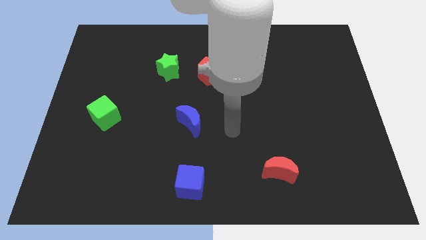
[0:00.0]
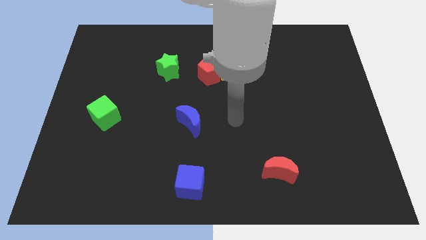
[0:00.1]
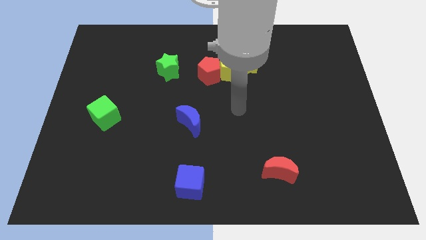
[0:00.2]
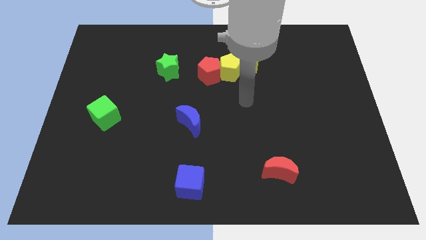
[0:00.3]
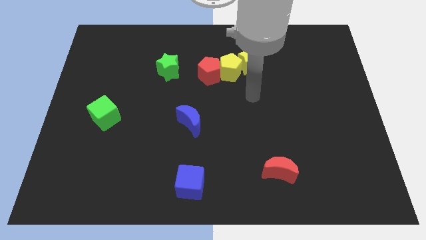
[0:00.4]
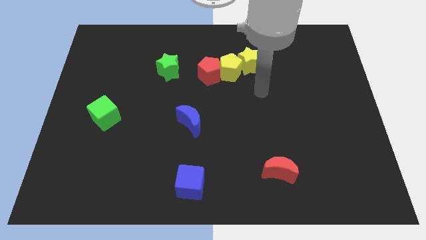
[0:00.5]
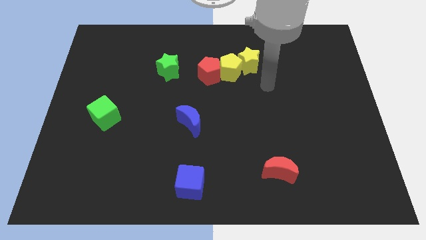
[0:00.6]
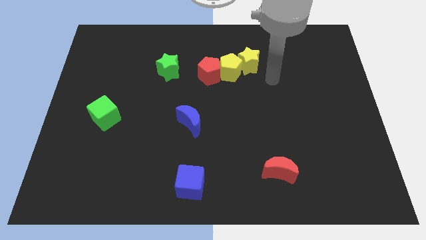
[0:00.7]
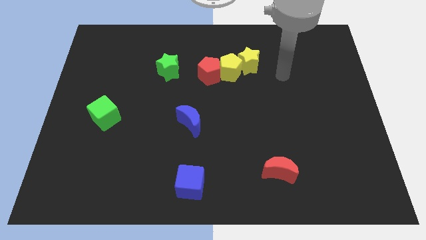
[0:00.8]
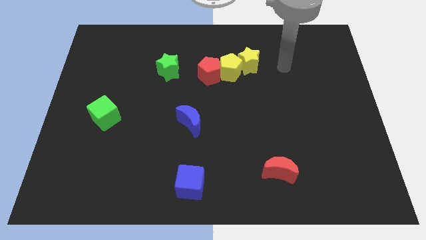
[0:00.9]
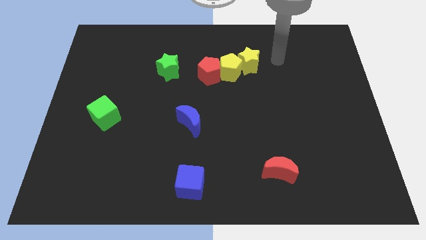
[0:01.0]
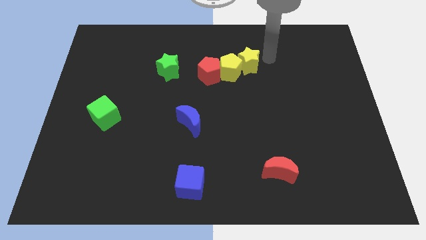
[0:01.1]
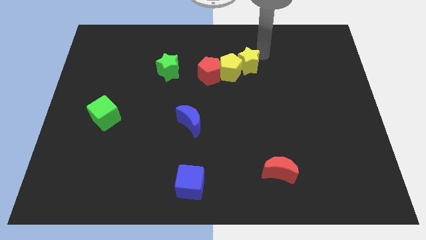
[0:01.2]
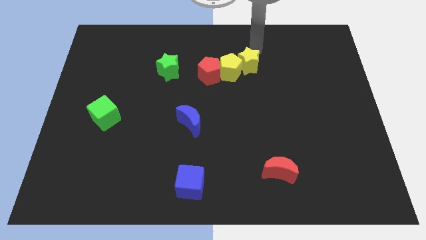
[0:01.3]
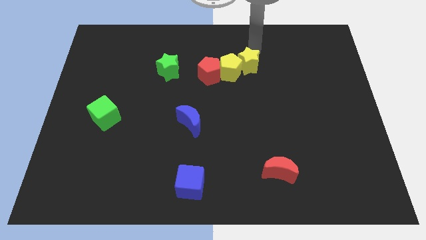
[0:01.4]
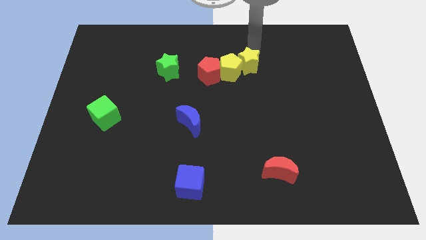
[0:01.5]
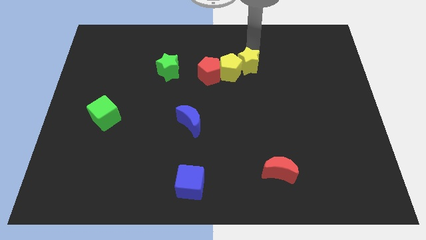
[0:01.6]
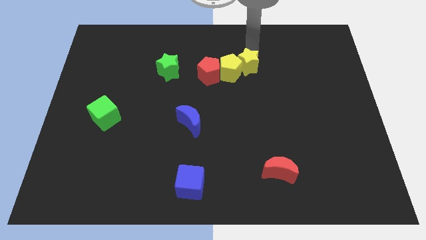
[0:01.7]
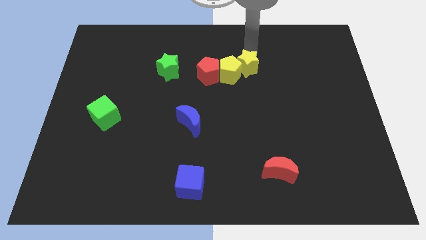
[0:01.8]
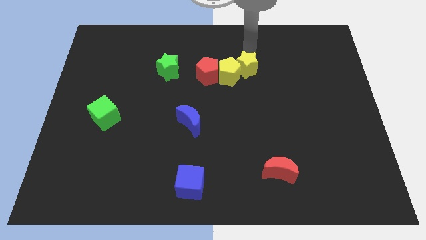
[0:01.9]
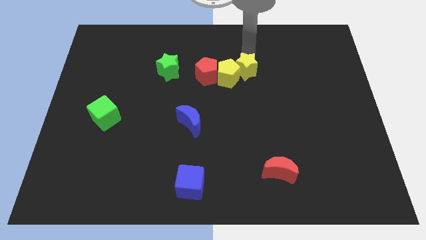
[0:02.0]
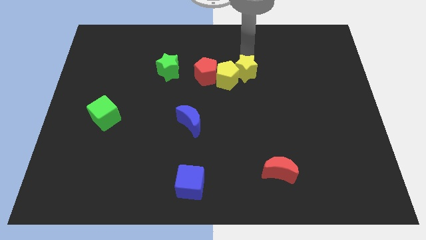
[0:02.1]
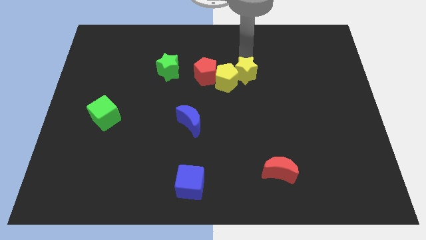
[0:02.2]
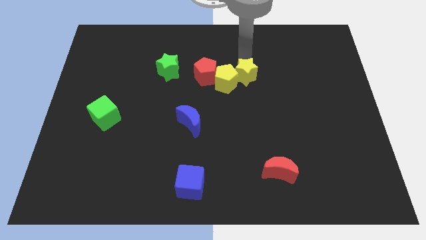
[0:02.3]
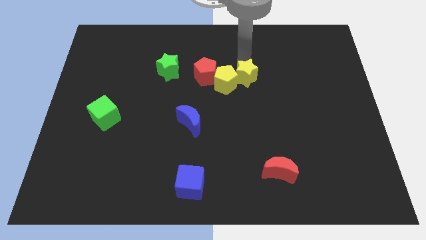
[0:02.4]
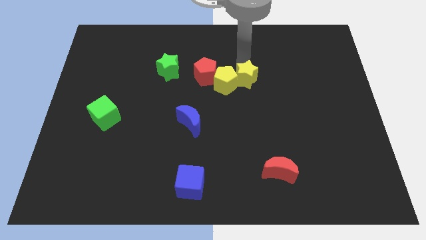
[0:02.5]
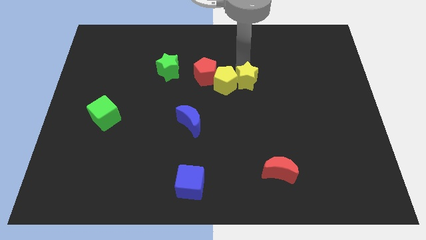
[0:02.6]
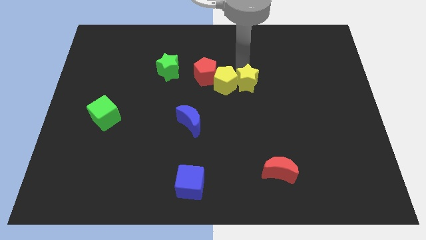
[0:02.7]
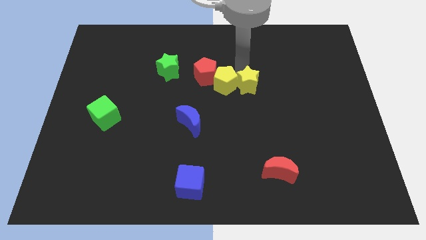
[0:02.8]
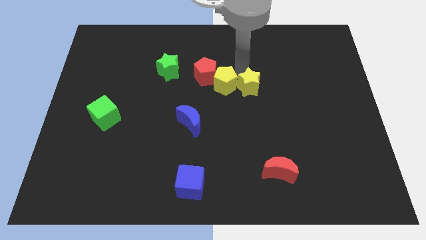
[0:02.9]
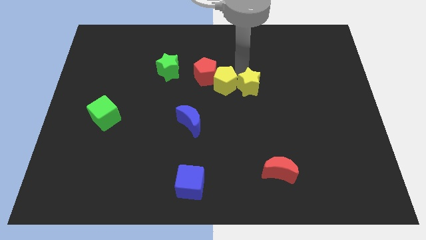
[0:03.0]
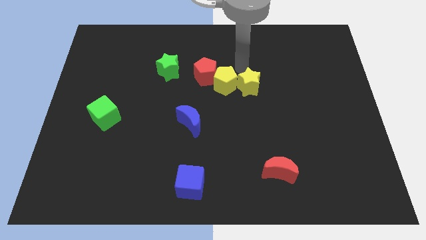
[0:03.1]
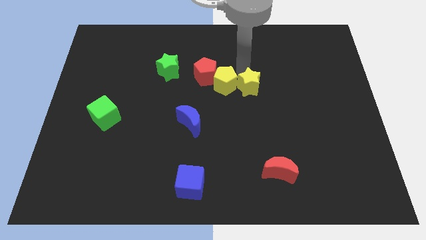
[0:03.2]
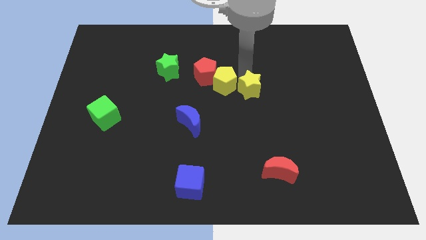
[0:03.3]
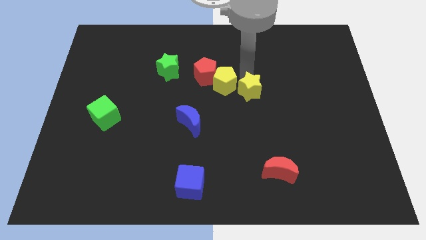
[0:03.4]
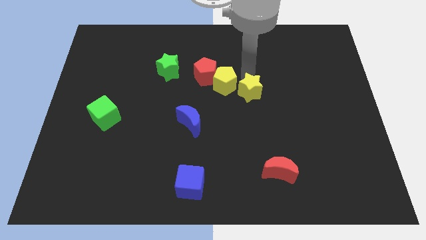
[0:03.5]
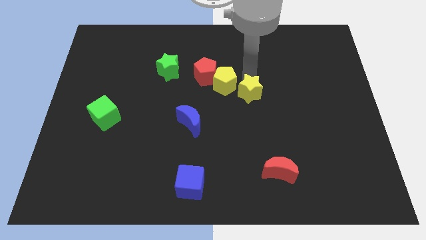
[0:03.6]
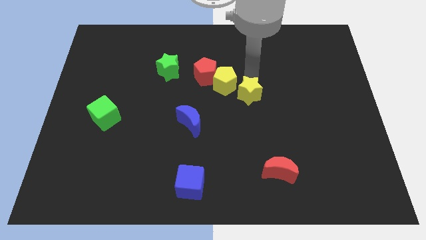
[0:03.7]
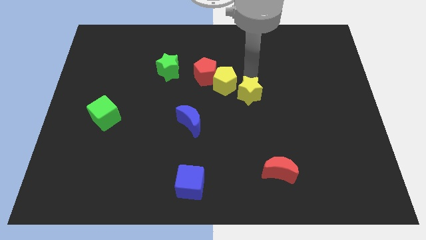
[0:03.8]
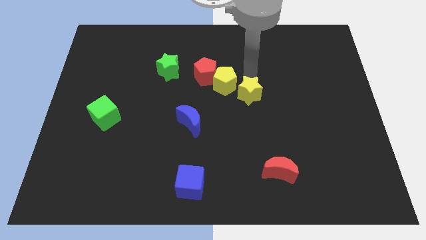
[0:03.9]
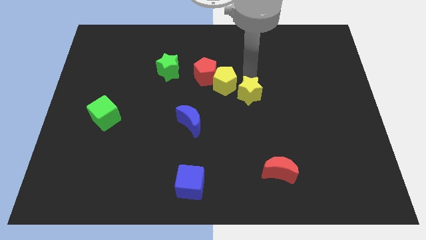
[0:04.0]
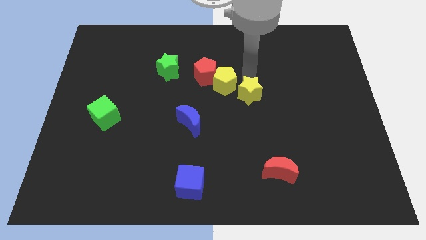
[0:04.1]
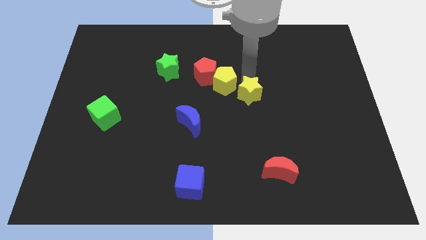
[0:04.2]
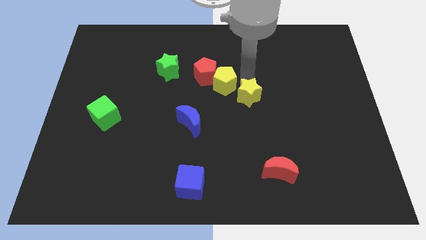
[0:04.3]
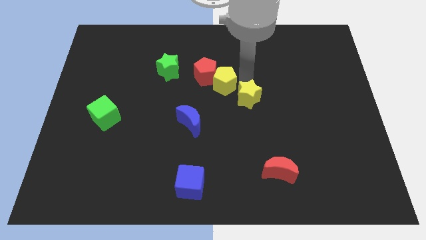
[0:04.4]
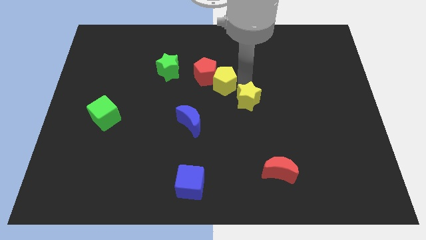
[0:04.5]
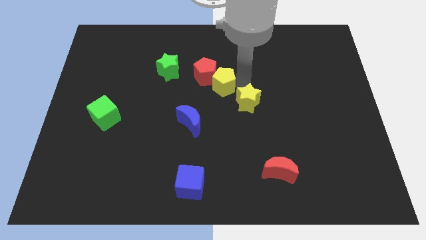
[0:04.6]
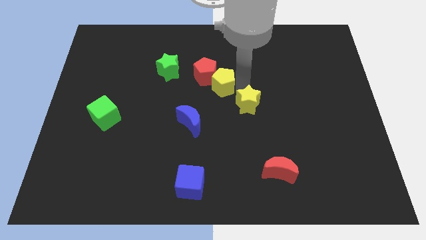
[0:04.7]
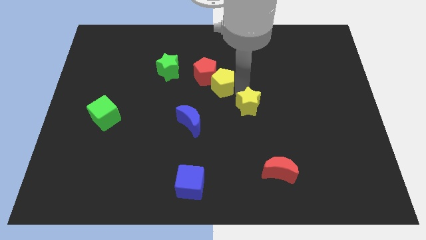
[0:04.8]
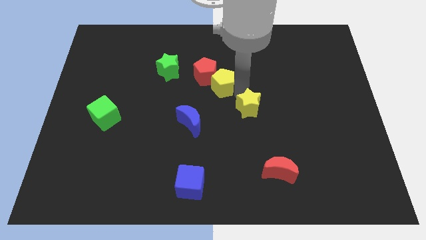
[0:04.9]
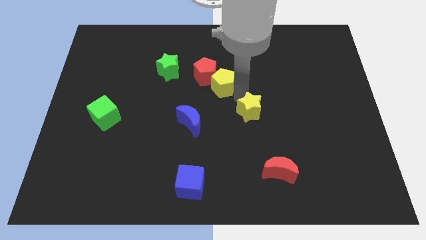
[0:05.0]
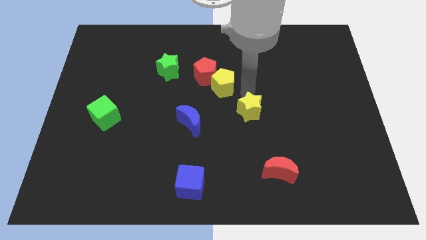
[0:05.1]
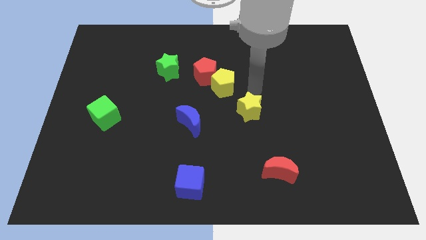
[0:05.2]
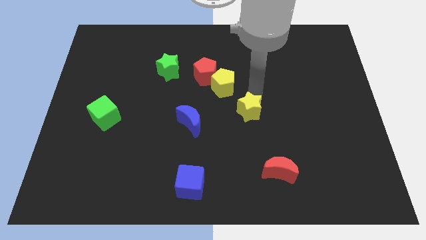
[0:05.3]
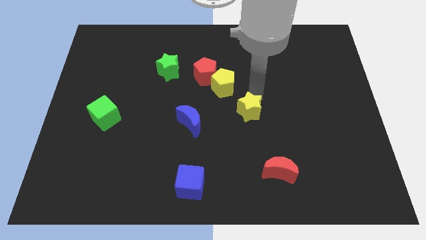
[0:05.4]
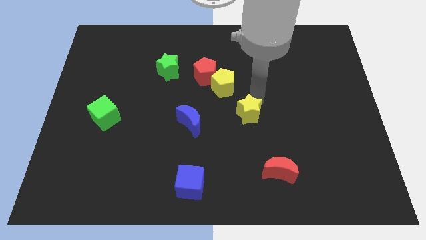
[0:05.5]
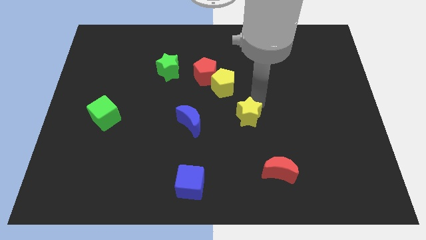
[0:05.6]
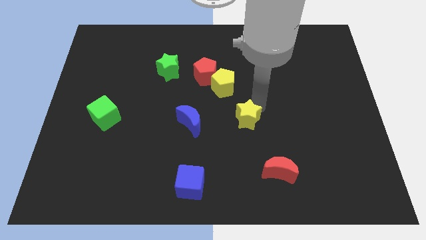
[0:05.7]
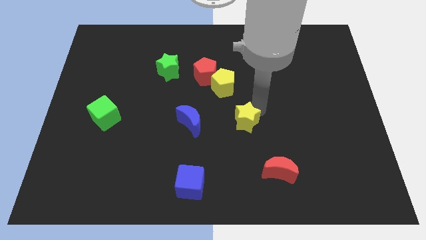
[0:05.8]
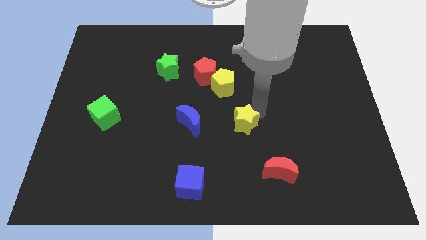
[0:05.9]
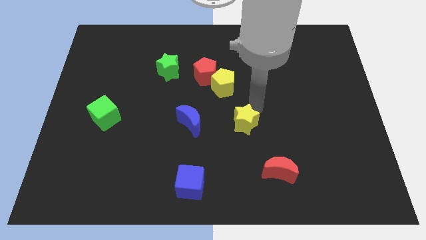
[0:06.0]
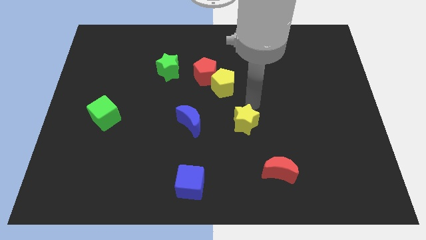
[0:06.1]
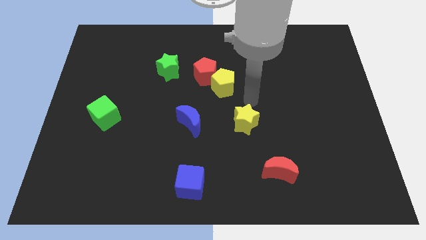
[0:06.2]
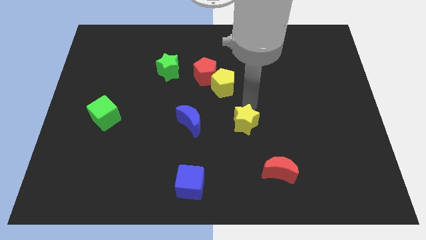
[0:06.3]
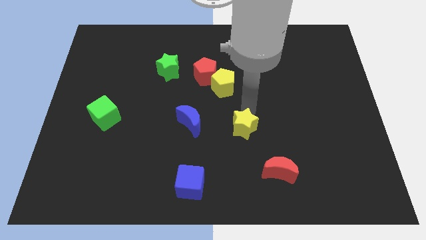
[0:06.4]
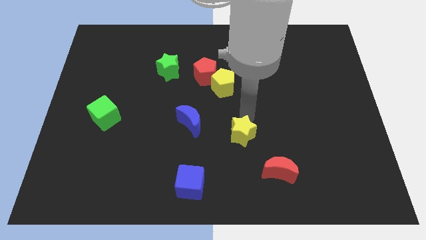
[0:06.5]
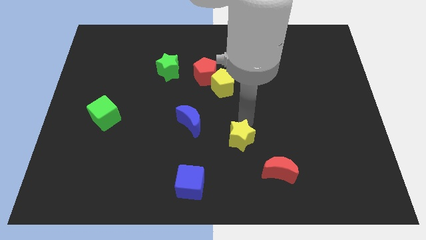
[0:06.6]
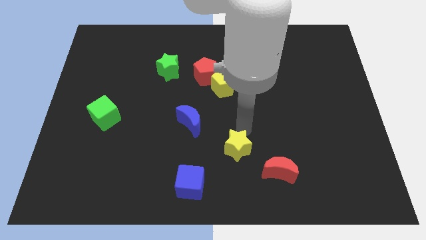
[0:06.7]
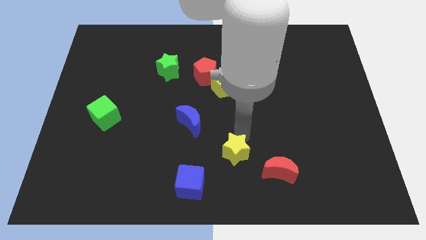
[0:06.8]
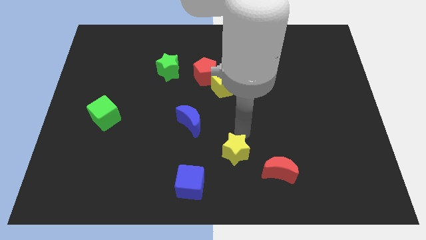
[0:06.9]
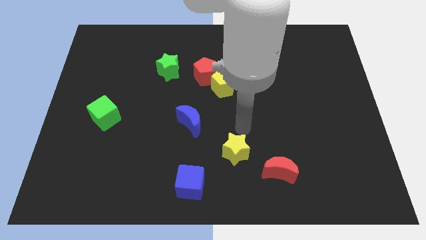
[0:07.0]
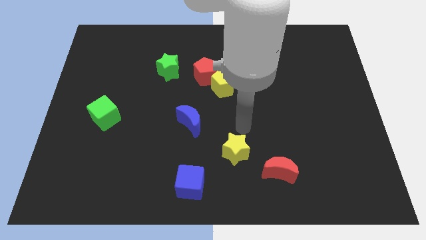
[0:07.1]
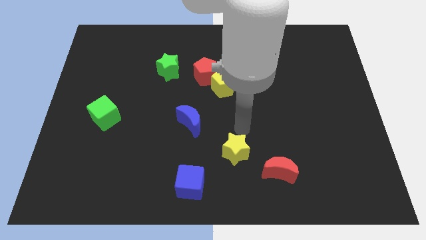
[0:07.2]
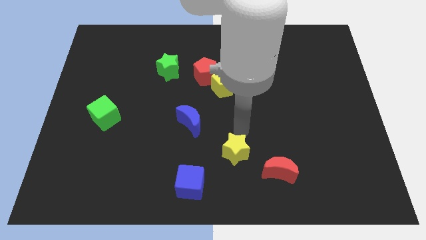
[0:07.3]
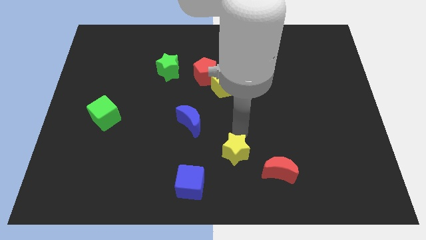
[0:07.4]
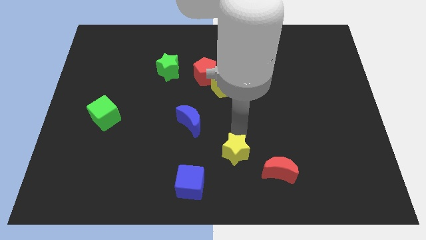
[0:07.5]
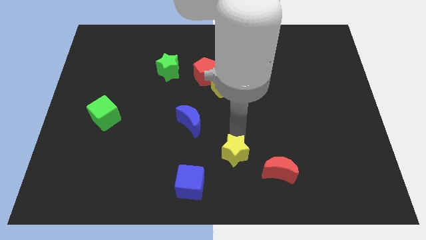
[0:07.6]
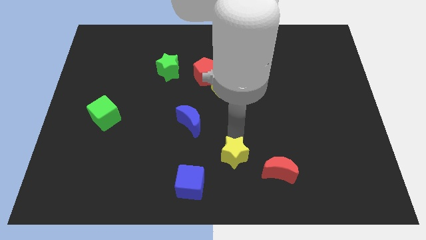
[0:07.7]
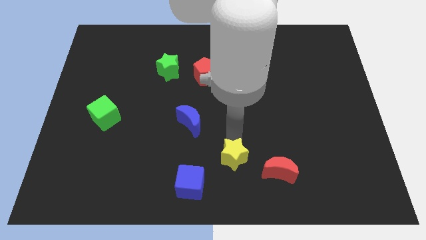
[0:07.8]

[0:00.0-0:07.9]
move the yellow star to the bottom side
